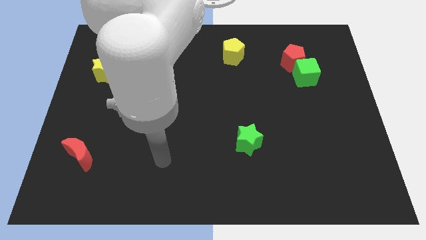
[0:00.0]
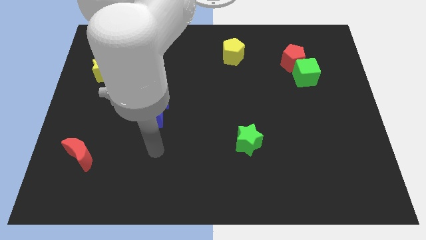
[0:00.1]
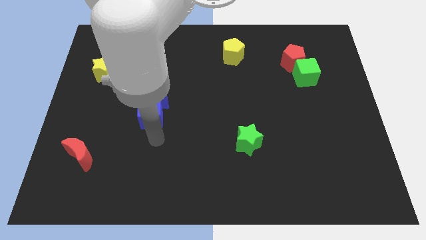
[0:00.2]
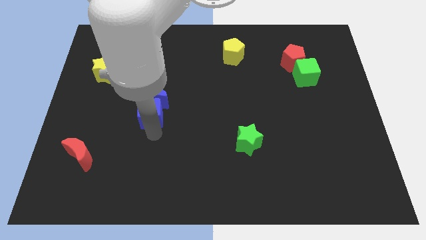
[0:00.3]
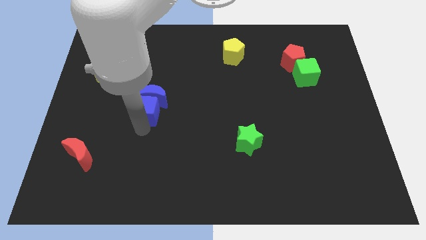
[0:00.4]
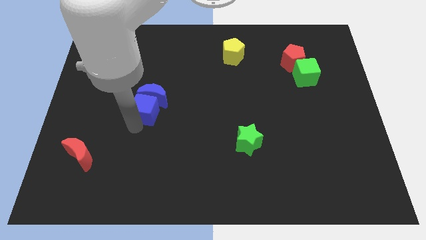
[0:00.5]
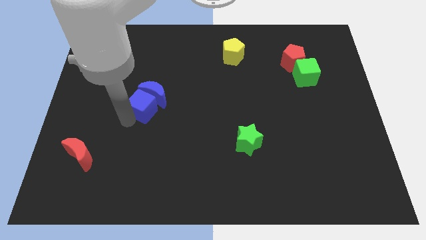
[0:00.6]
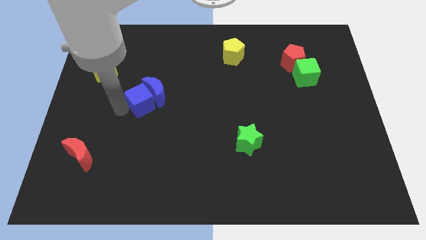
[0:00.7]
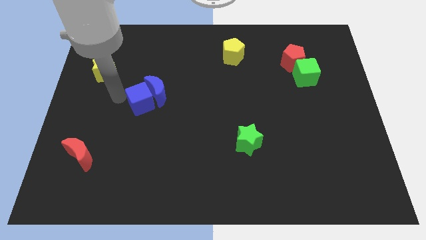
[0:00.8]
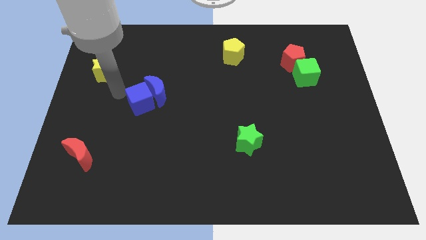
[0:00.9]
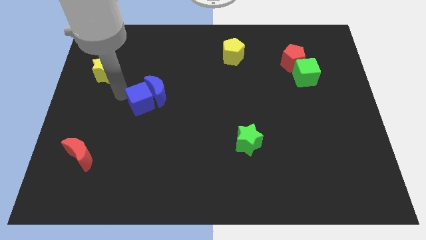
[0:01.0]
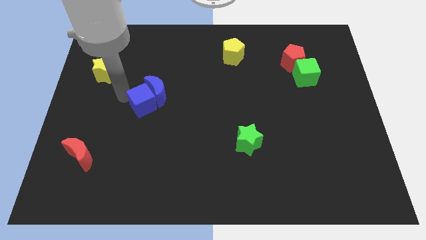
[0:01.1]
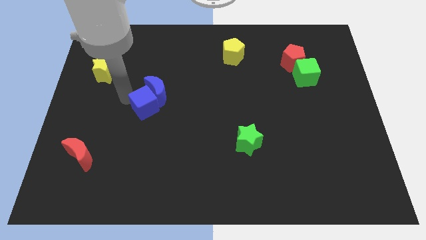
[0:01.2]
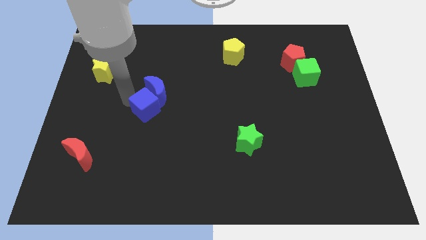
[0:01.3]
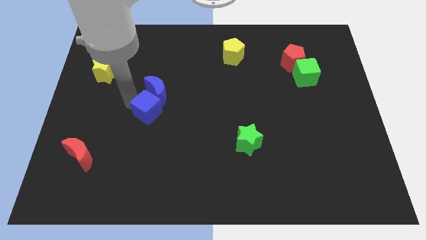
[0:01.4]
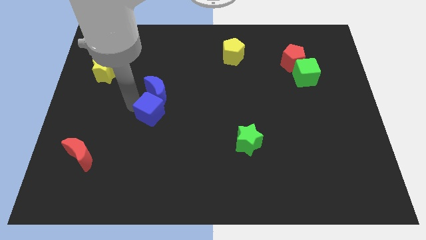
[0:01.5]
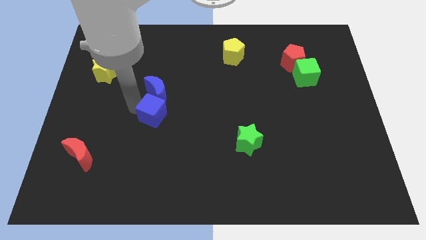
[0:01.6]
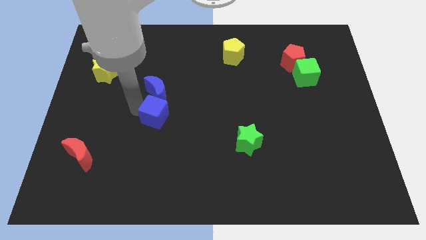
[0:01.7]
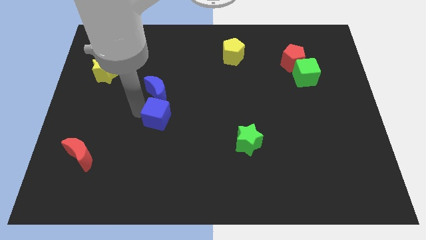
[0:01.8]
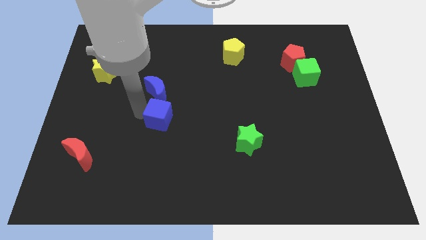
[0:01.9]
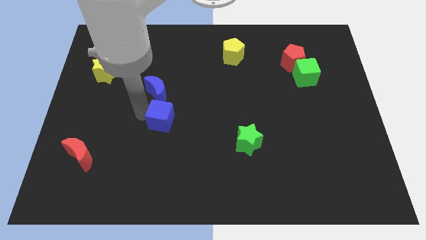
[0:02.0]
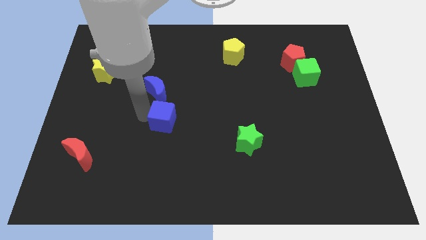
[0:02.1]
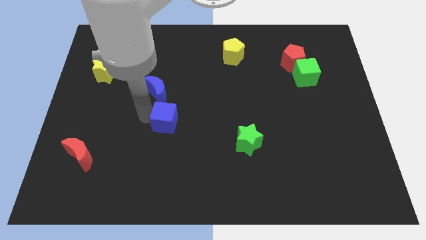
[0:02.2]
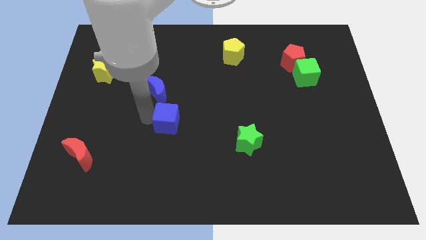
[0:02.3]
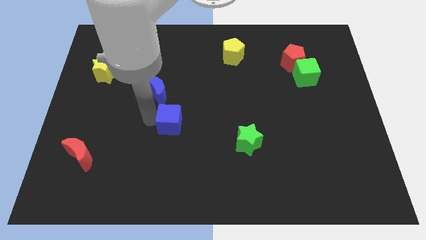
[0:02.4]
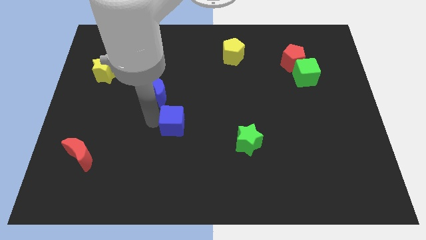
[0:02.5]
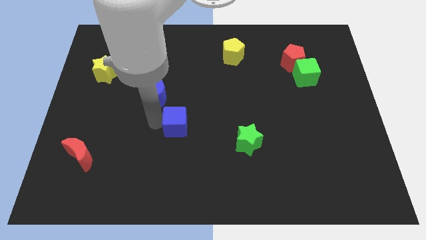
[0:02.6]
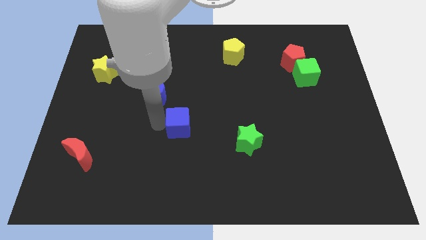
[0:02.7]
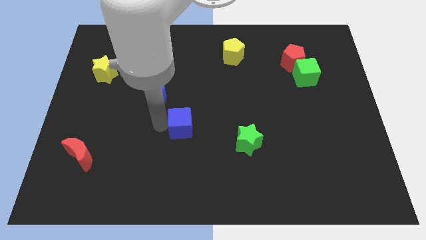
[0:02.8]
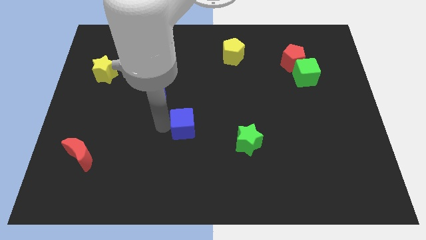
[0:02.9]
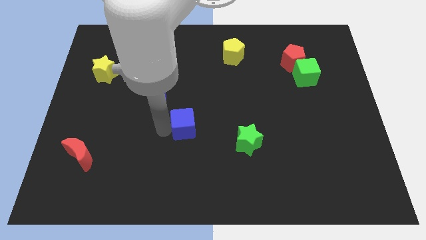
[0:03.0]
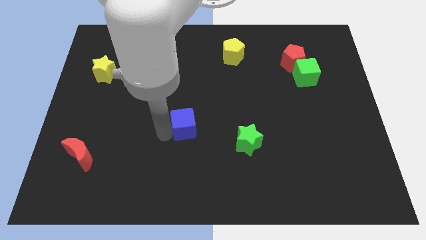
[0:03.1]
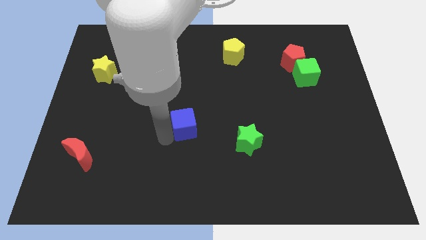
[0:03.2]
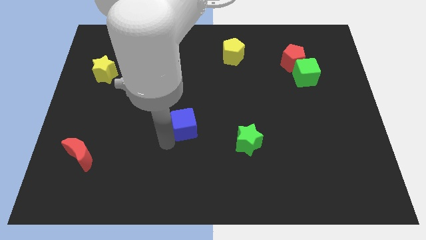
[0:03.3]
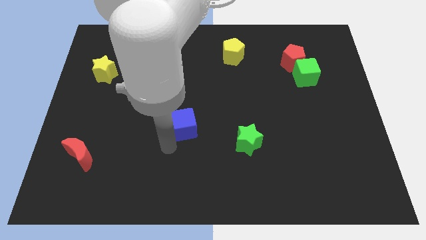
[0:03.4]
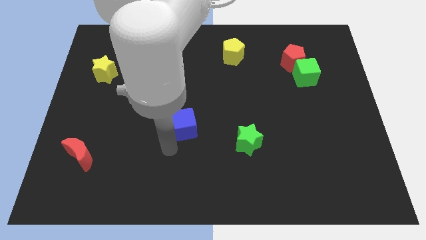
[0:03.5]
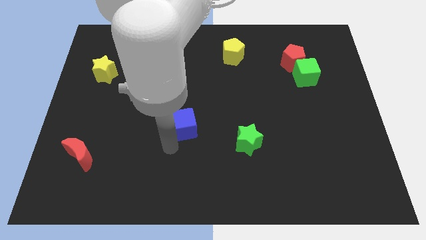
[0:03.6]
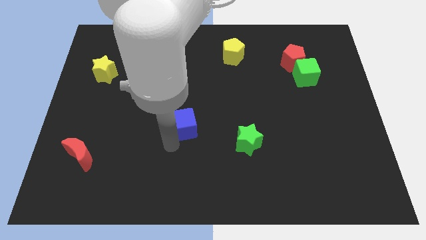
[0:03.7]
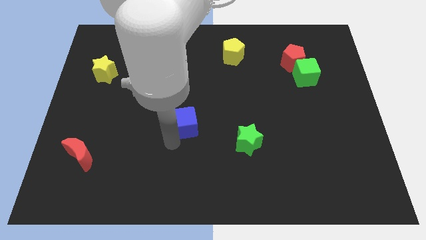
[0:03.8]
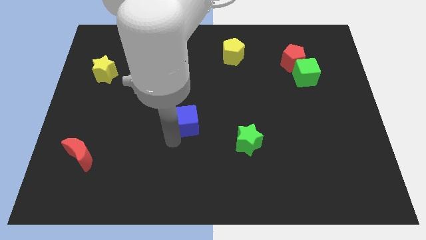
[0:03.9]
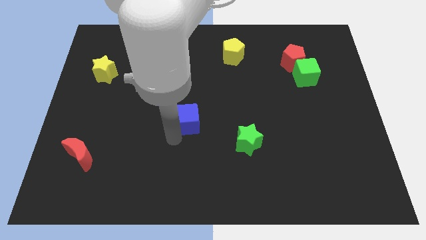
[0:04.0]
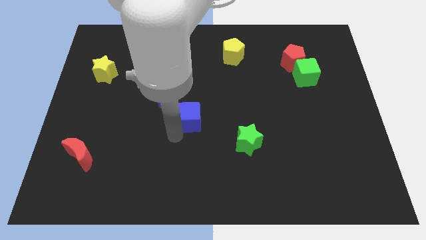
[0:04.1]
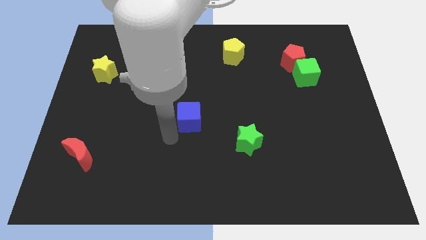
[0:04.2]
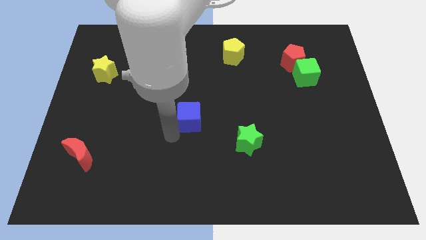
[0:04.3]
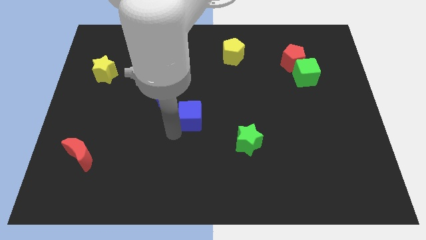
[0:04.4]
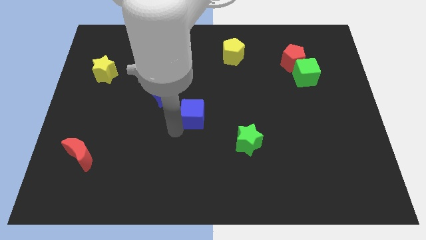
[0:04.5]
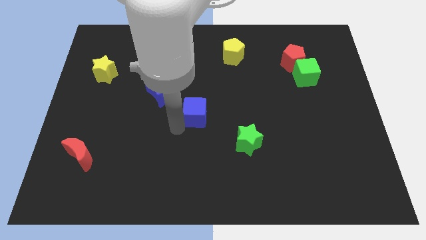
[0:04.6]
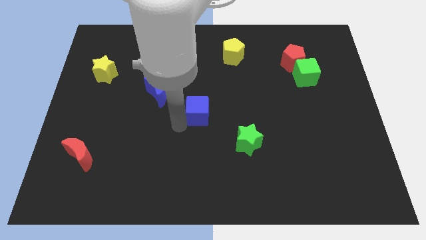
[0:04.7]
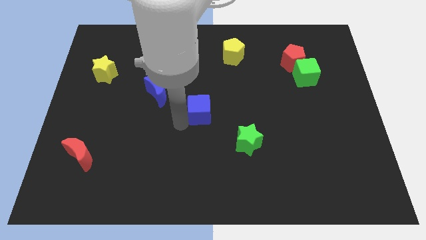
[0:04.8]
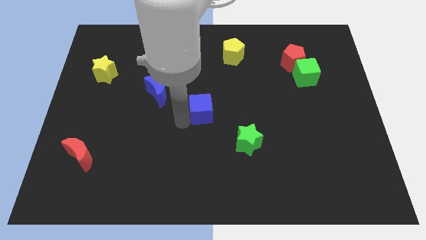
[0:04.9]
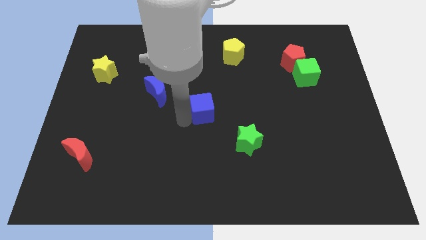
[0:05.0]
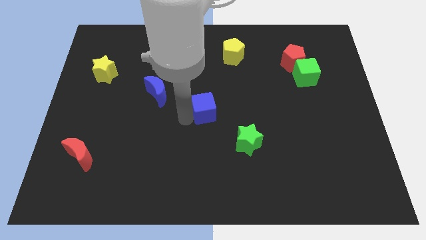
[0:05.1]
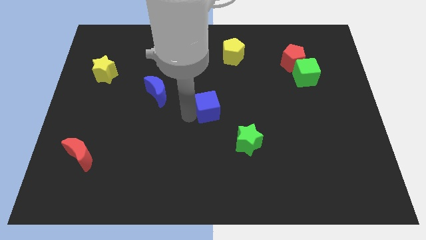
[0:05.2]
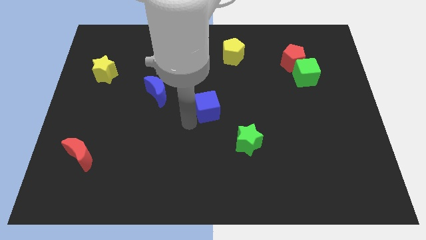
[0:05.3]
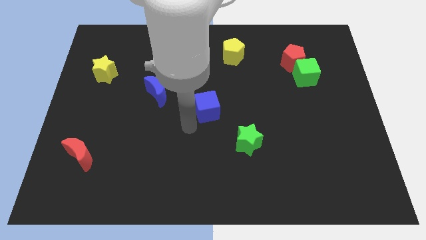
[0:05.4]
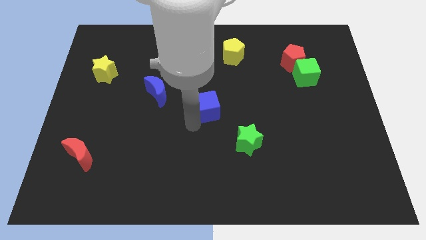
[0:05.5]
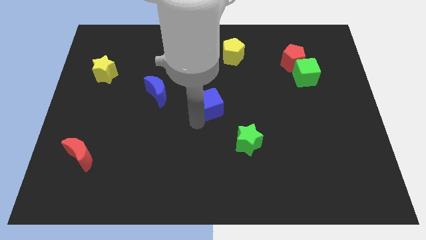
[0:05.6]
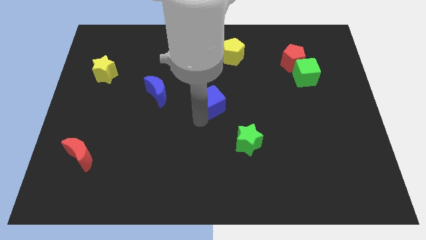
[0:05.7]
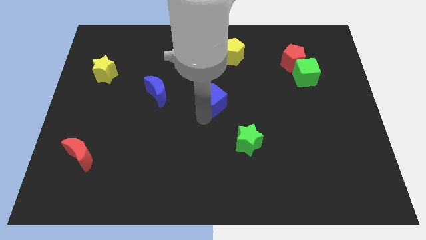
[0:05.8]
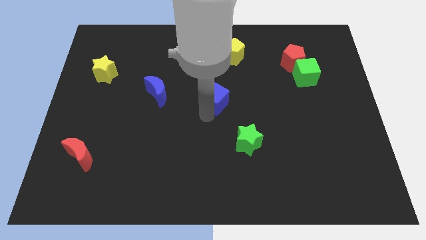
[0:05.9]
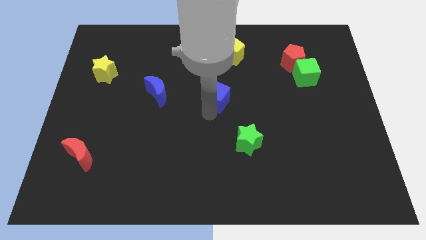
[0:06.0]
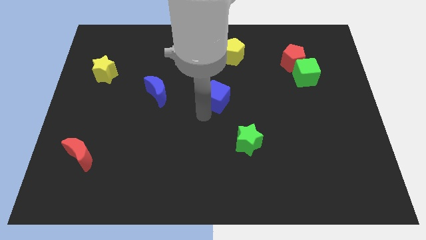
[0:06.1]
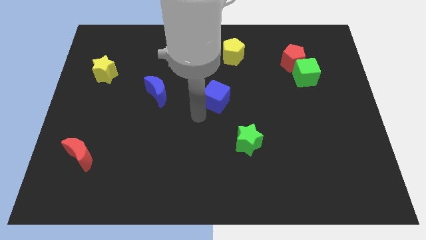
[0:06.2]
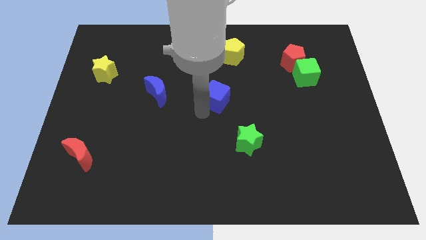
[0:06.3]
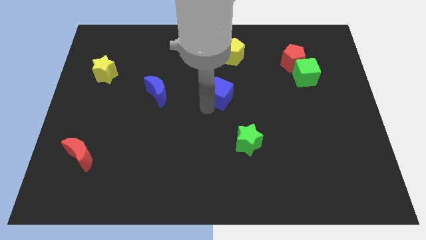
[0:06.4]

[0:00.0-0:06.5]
move the blue cube to the bottom side of the yellow pentagon

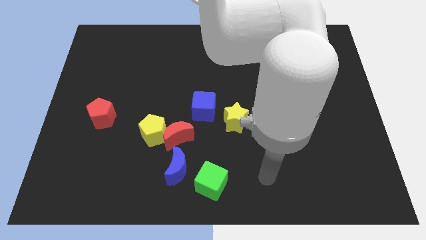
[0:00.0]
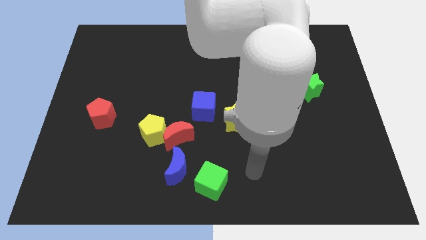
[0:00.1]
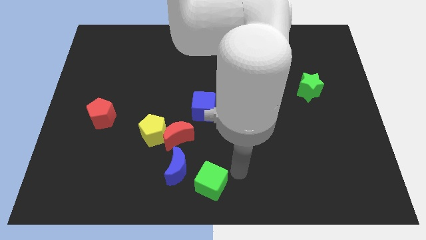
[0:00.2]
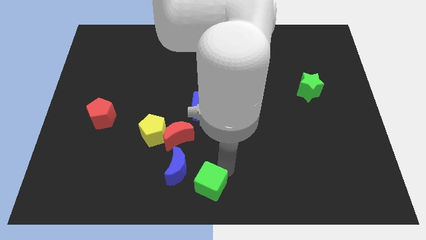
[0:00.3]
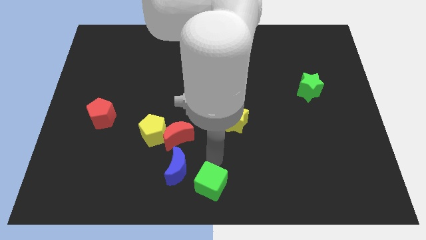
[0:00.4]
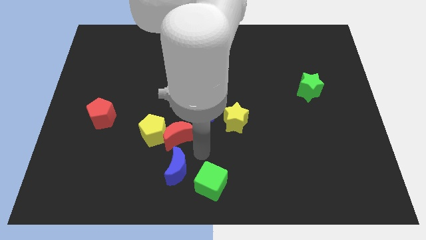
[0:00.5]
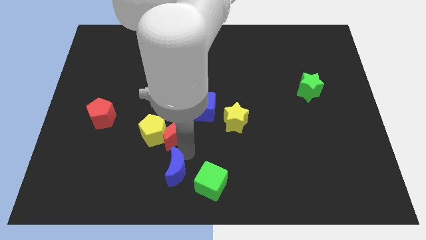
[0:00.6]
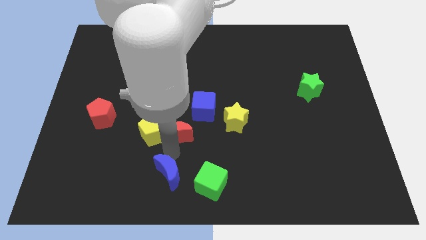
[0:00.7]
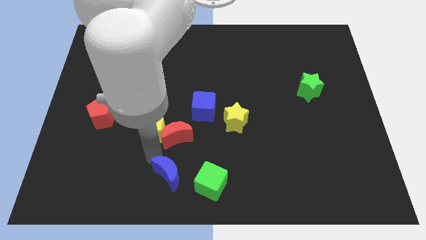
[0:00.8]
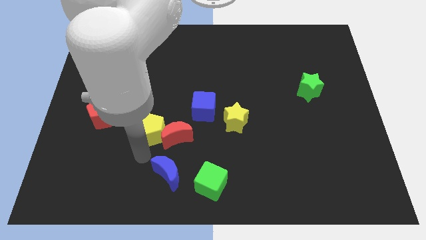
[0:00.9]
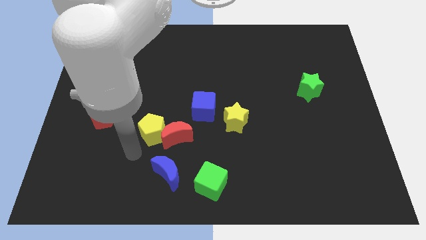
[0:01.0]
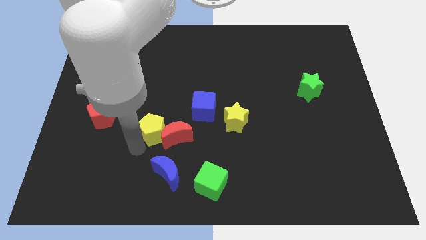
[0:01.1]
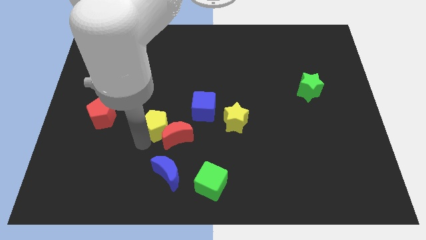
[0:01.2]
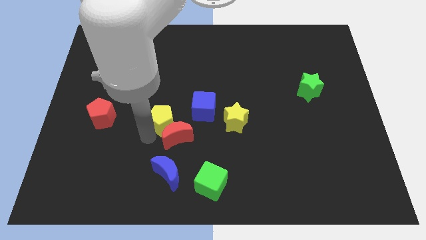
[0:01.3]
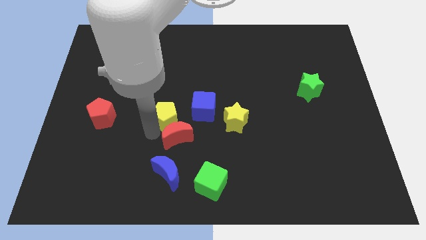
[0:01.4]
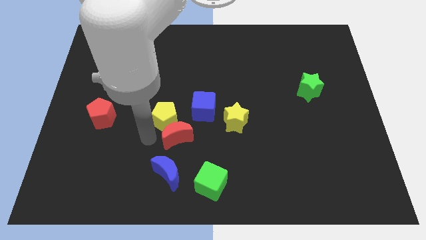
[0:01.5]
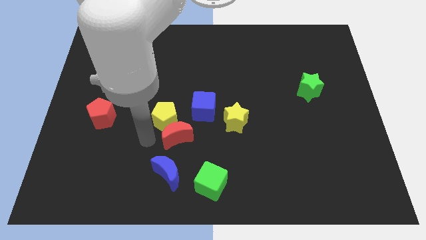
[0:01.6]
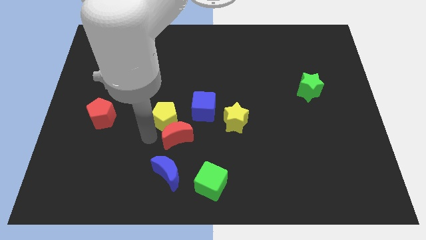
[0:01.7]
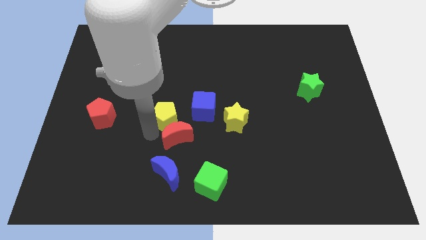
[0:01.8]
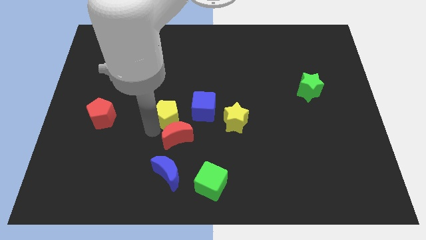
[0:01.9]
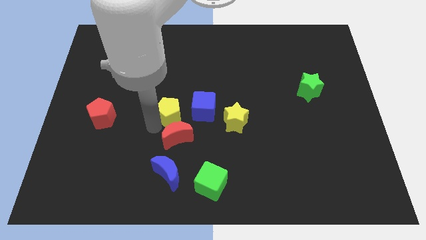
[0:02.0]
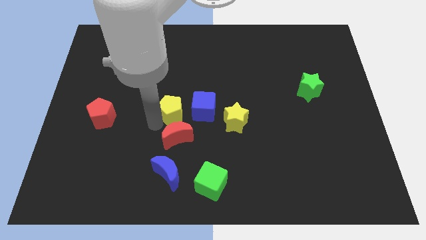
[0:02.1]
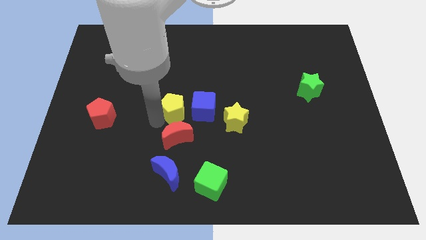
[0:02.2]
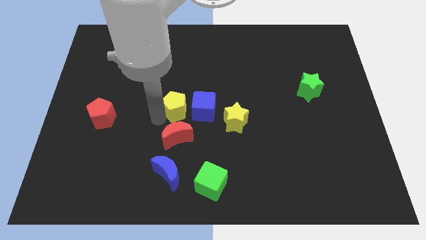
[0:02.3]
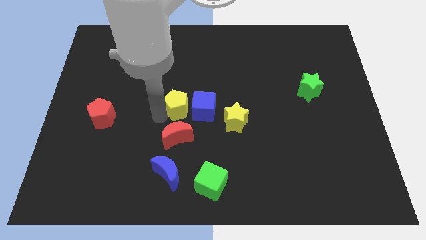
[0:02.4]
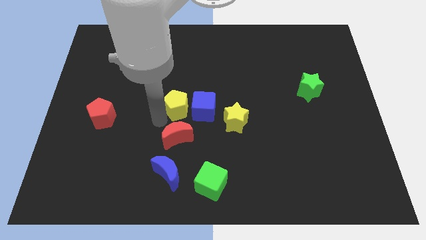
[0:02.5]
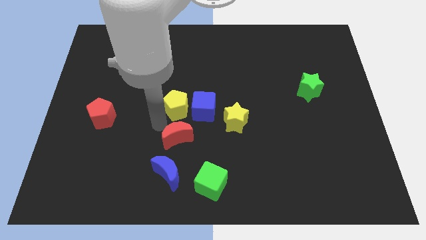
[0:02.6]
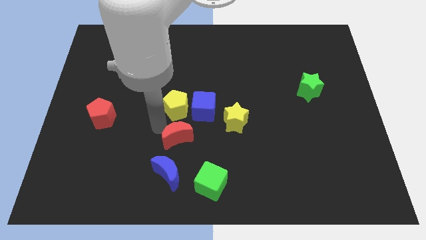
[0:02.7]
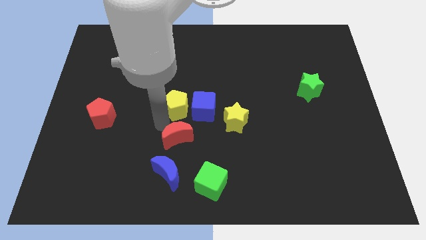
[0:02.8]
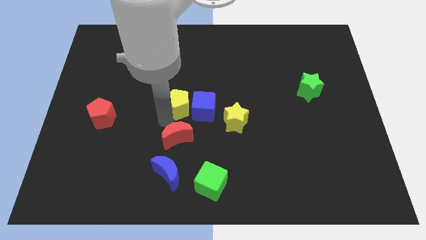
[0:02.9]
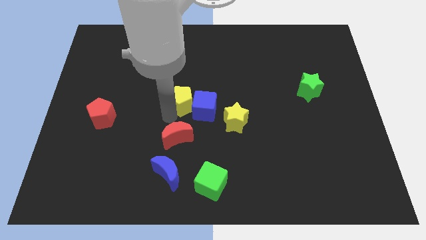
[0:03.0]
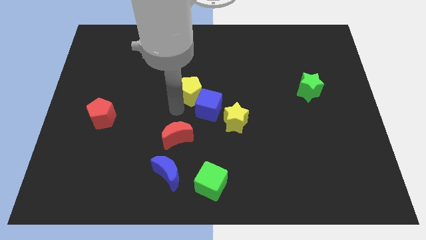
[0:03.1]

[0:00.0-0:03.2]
move the yellow pentagon to the top side of the blue cube
